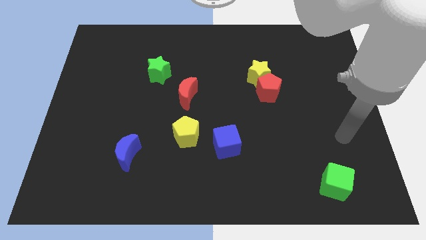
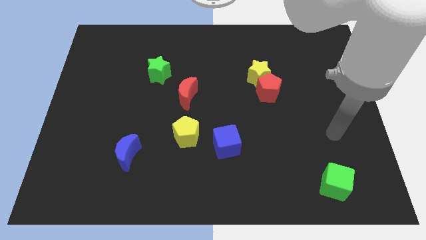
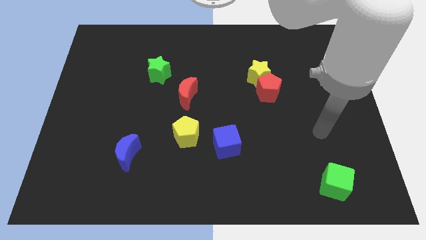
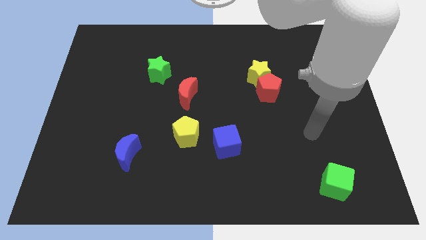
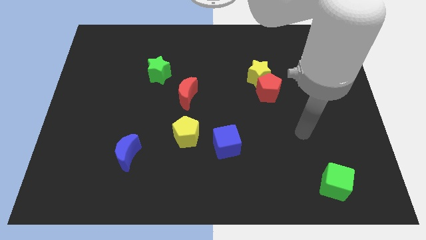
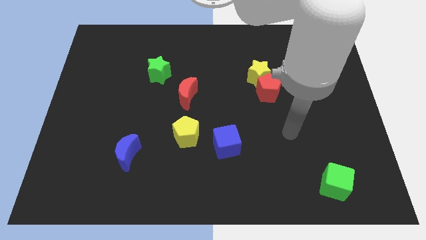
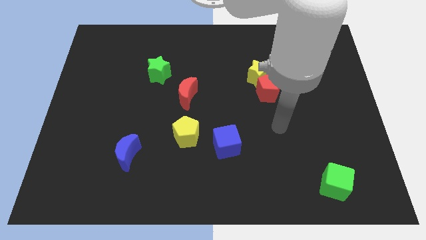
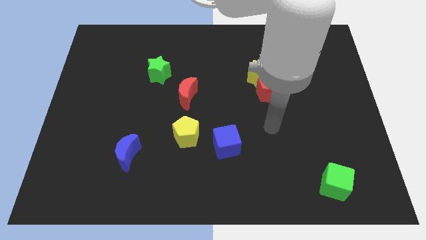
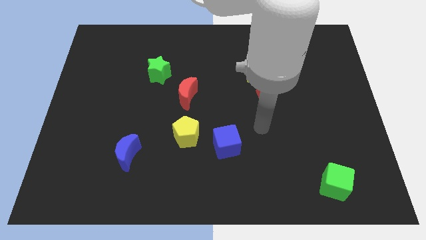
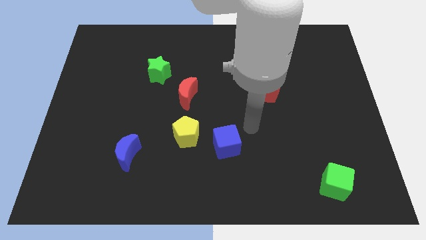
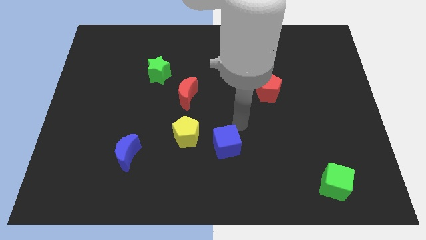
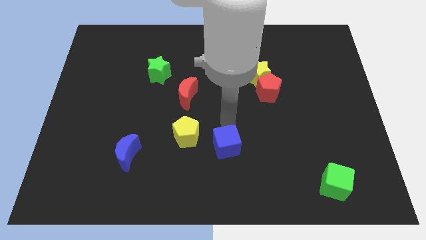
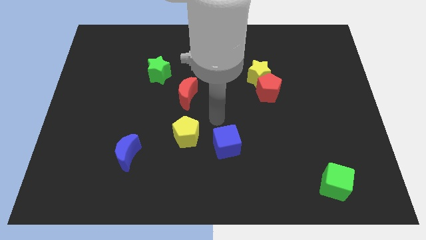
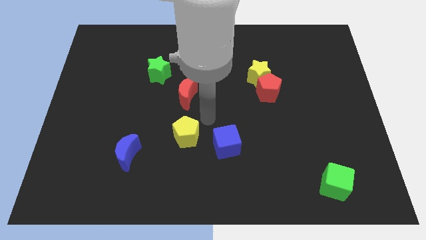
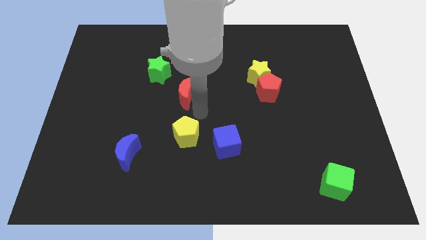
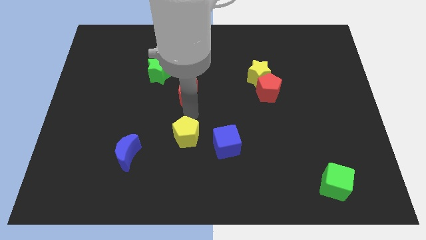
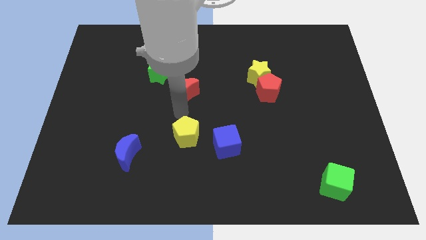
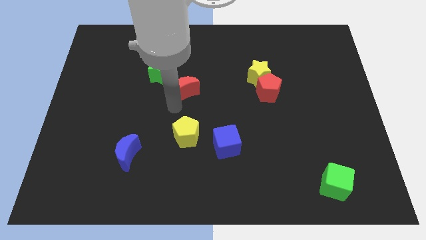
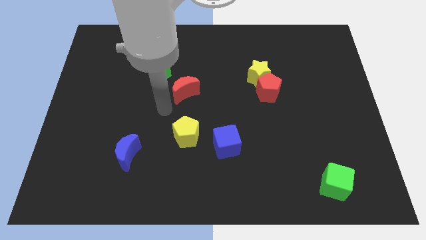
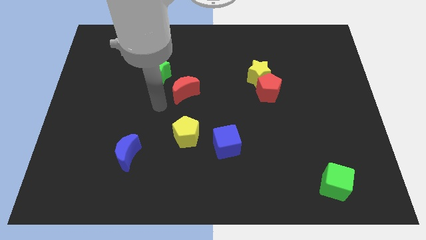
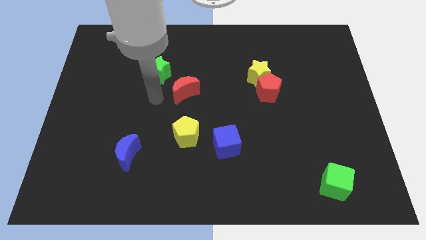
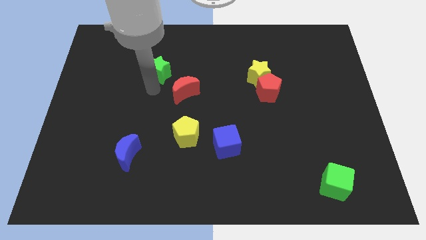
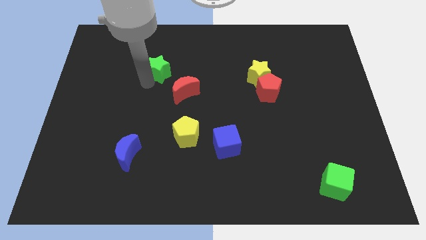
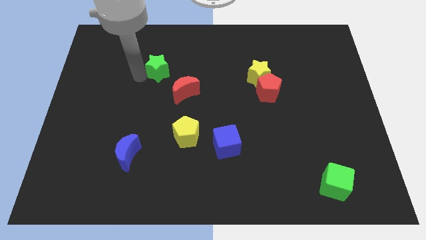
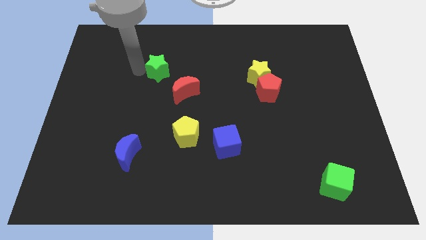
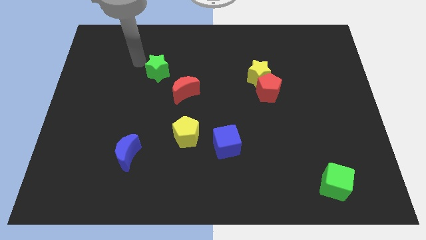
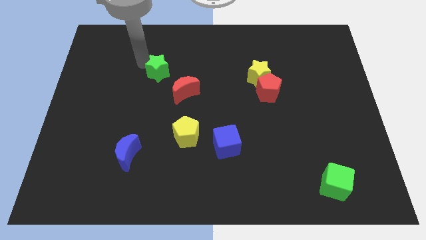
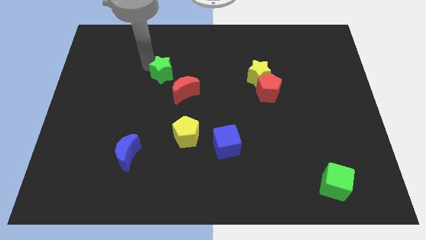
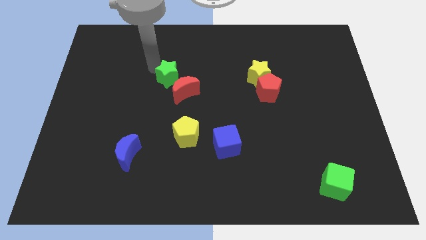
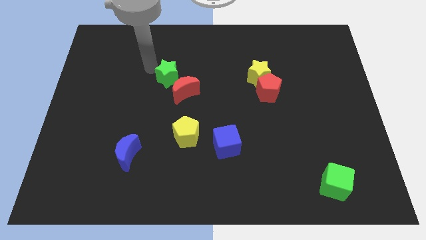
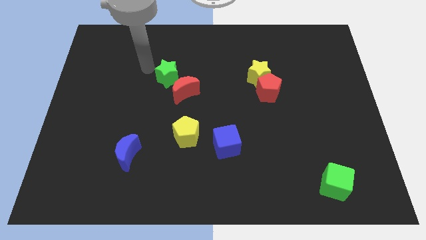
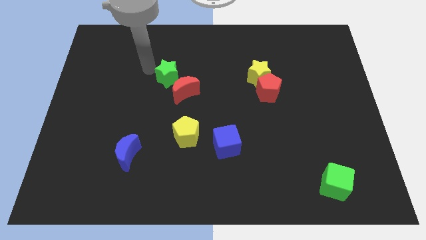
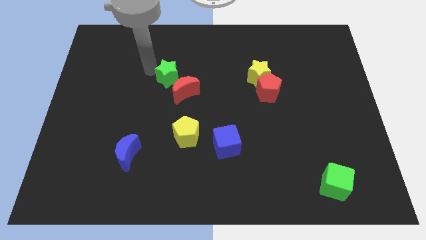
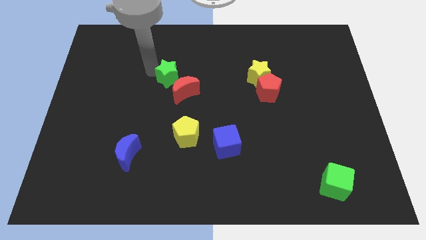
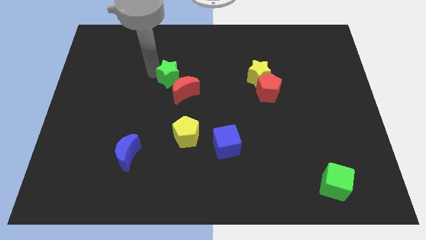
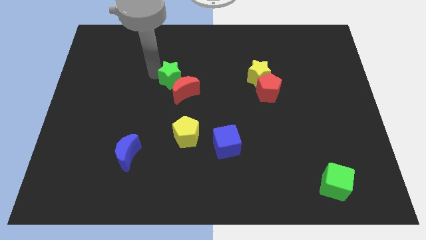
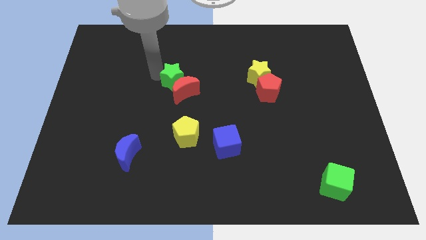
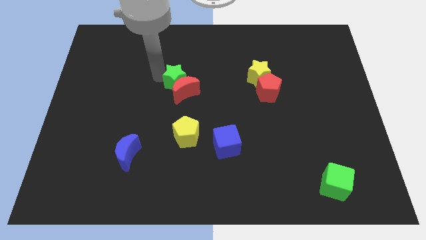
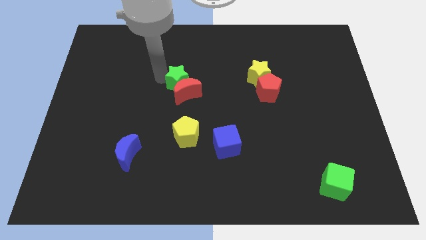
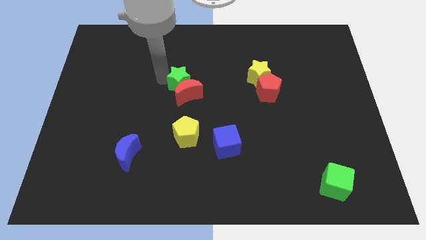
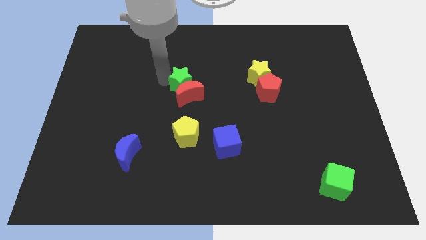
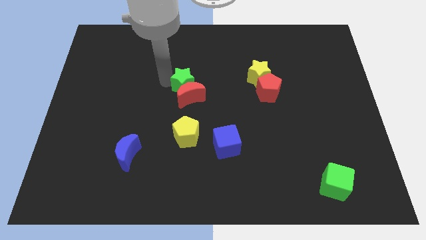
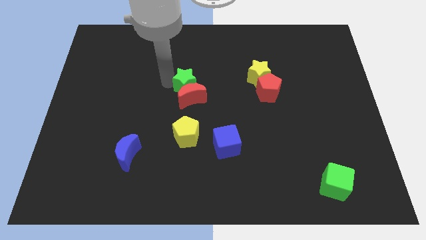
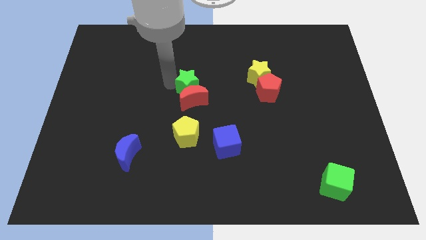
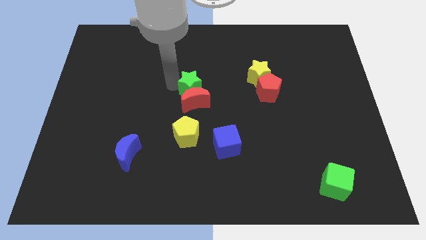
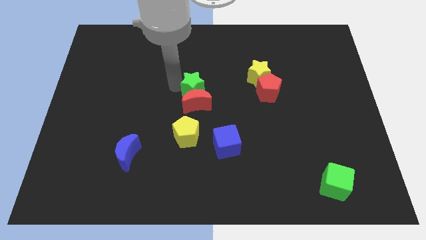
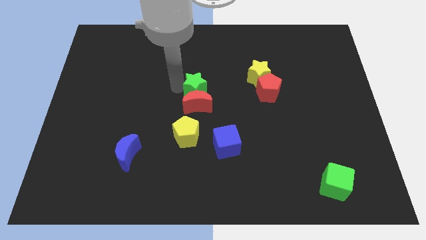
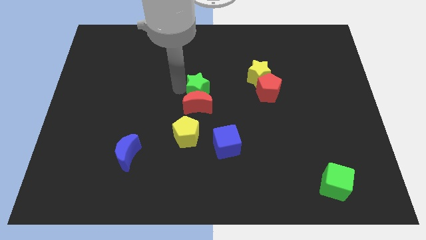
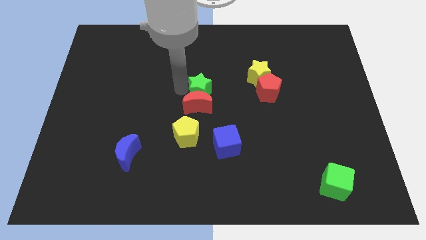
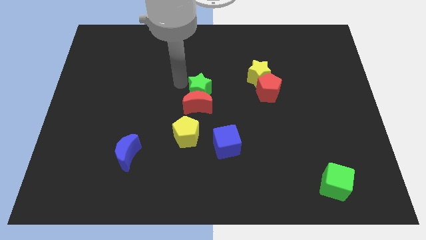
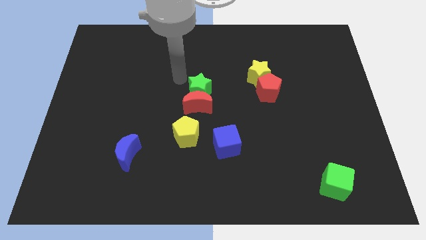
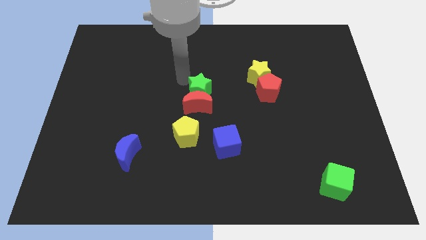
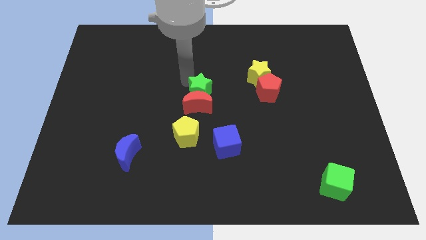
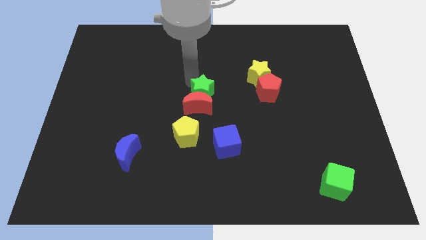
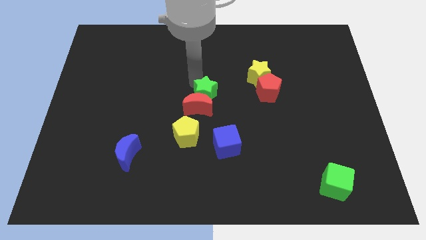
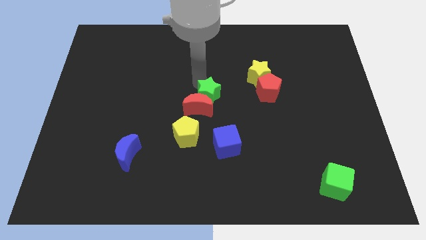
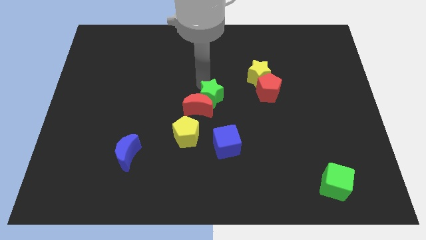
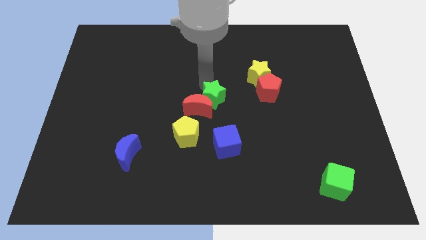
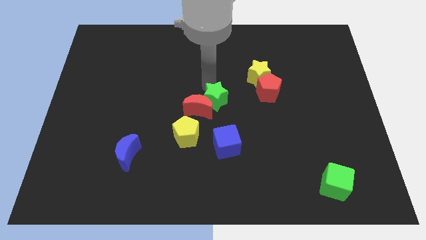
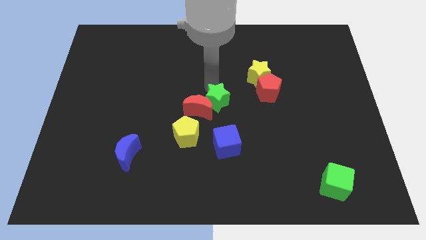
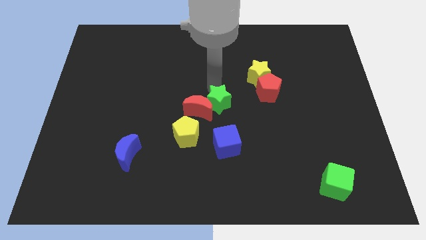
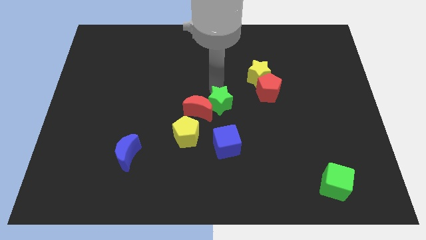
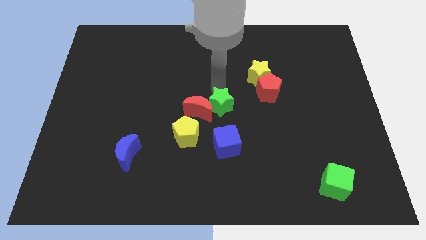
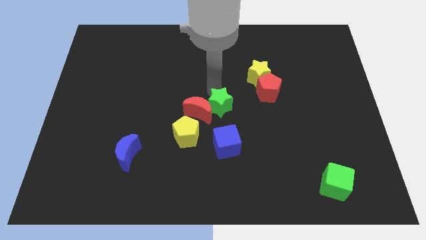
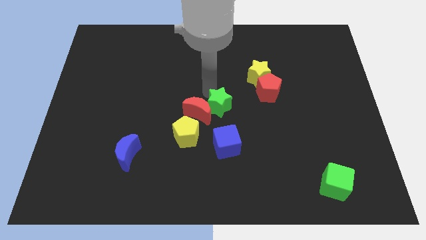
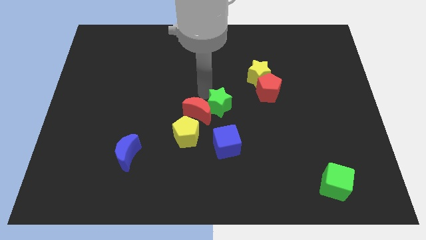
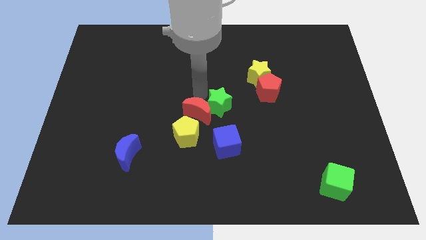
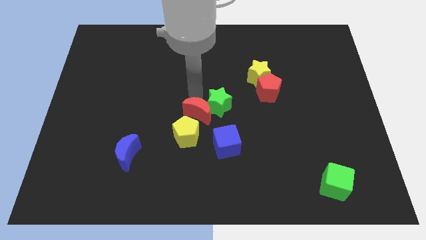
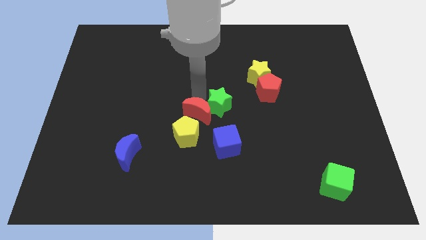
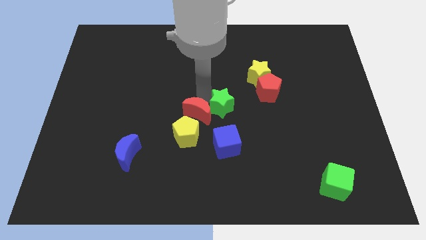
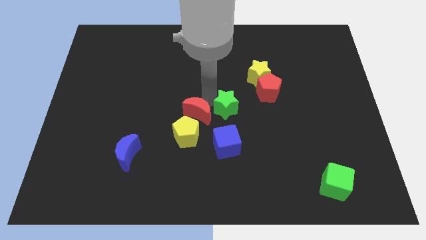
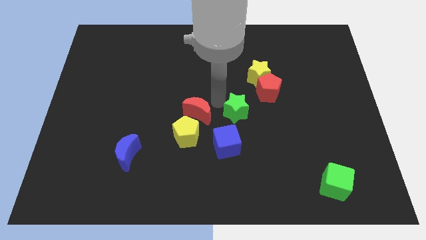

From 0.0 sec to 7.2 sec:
slide the green star down and right

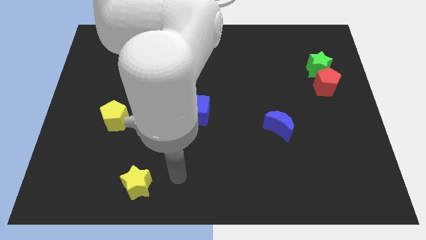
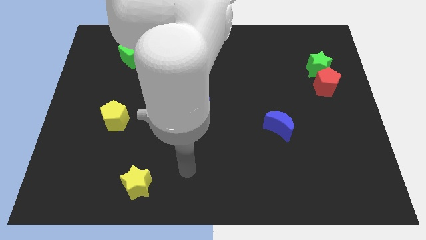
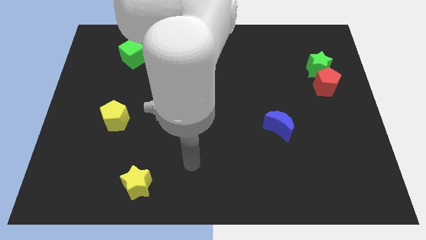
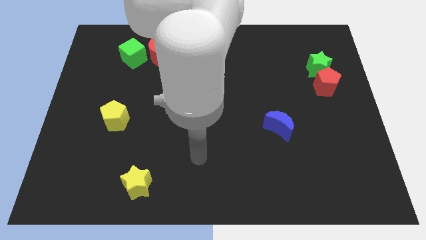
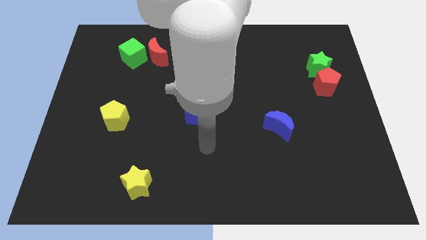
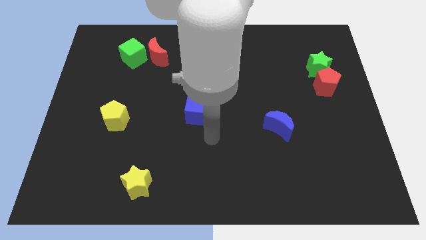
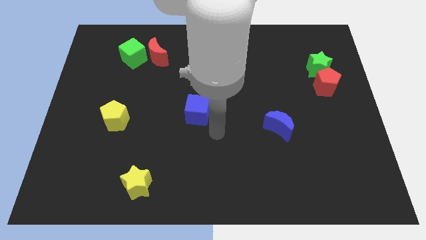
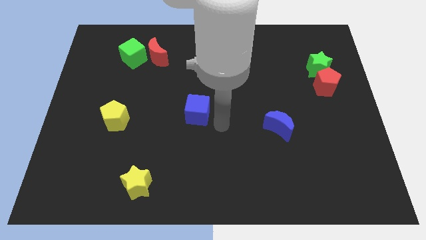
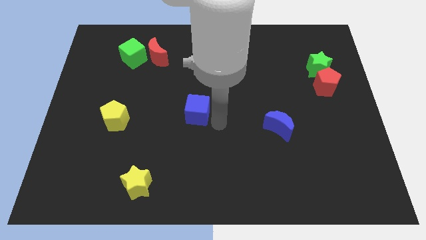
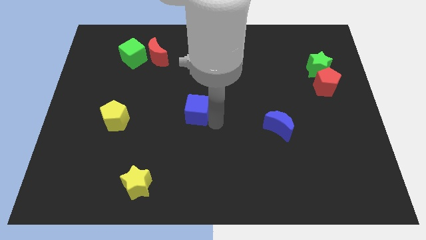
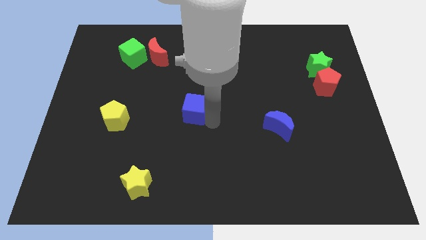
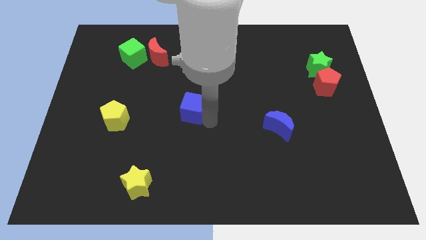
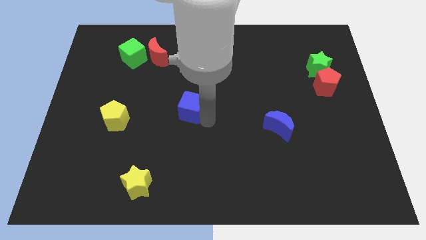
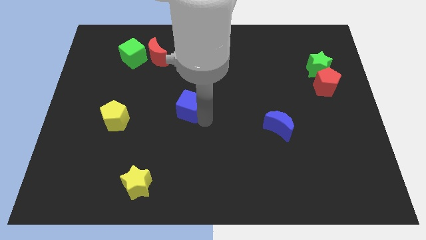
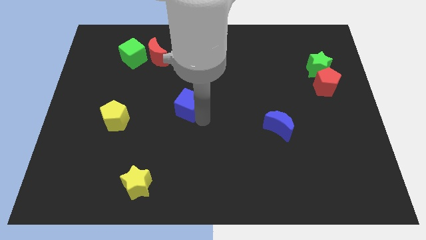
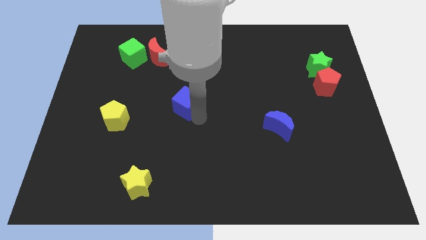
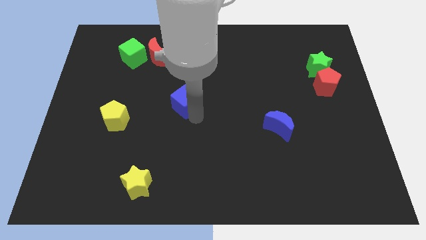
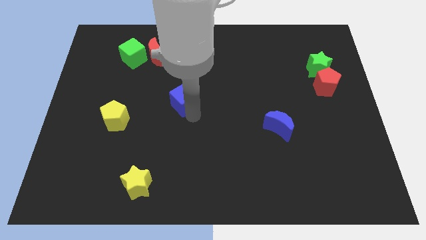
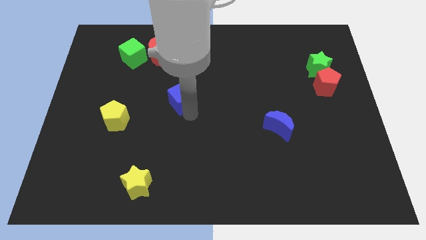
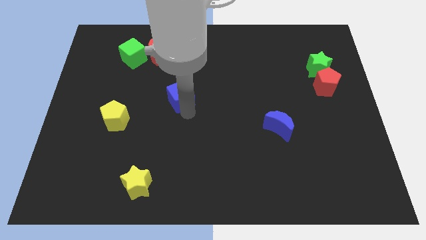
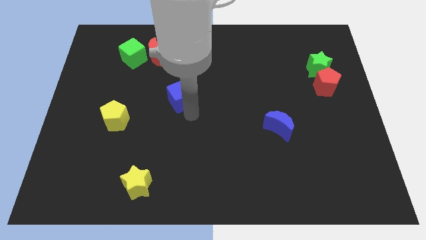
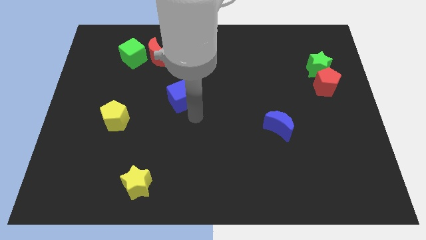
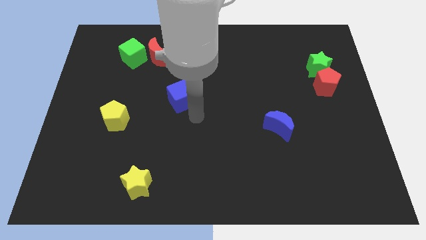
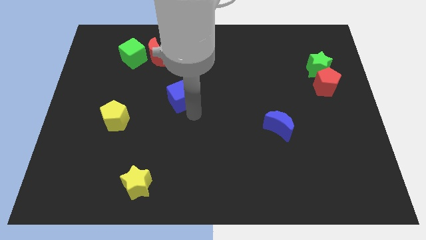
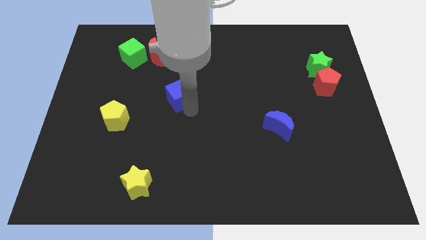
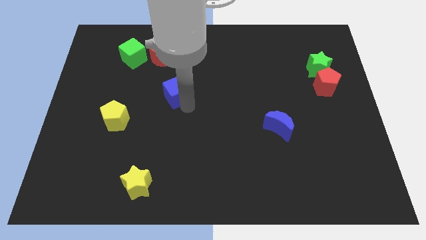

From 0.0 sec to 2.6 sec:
slide the blue cube up and to the left diagonally a little
